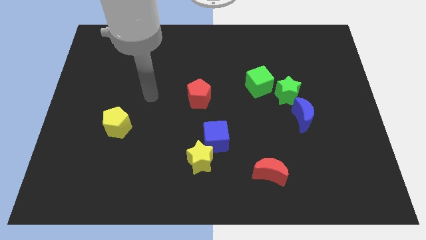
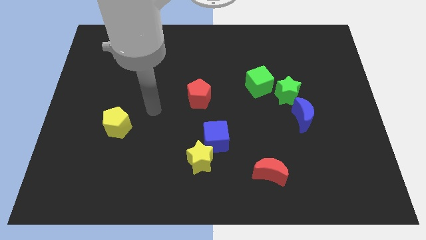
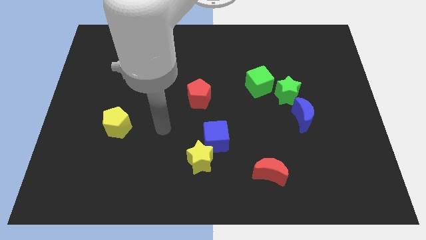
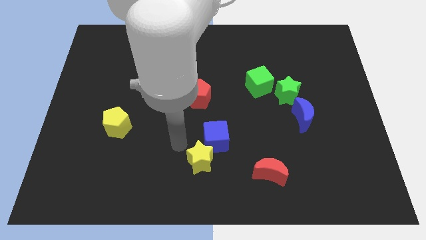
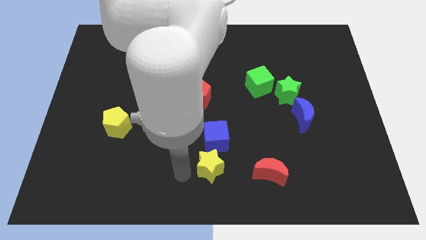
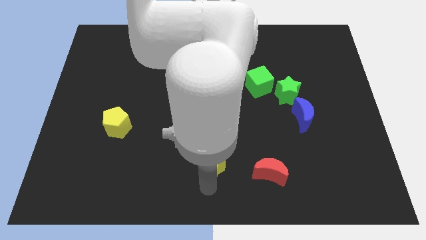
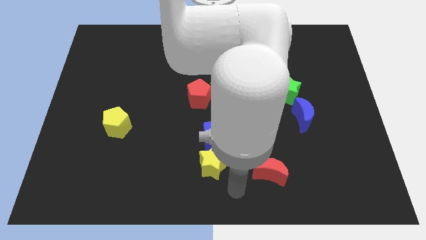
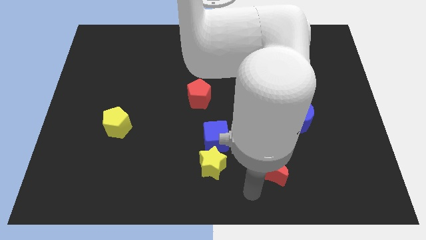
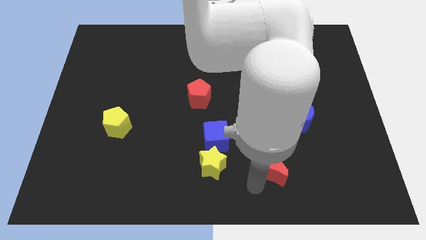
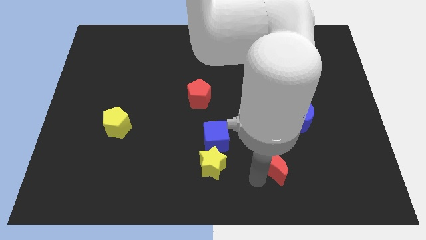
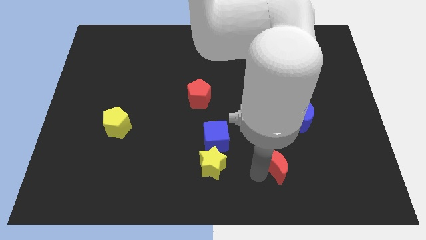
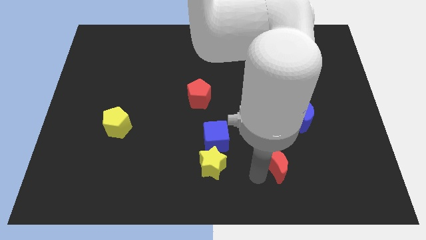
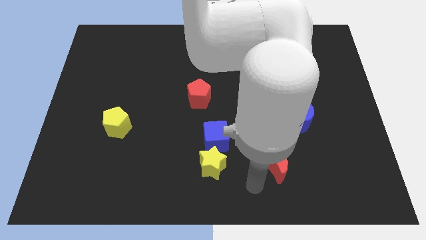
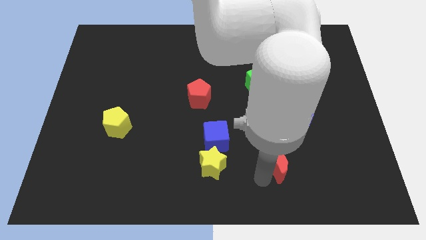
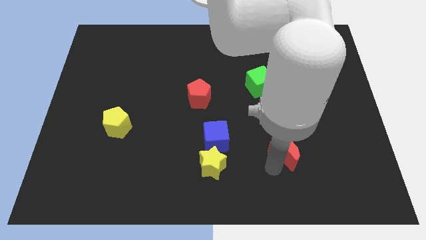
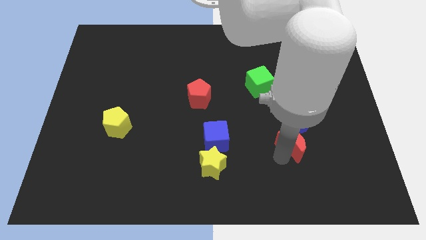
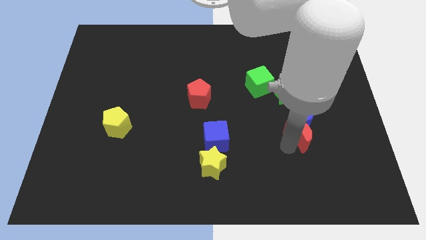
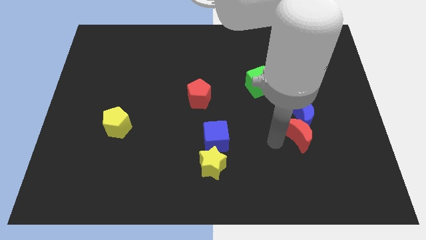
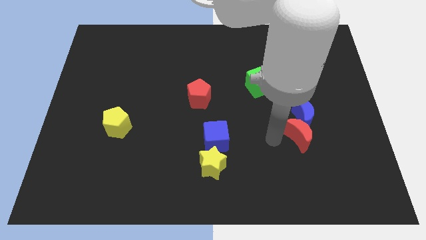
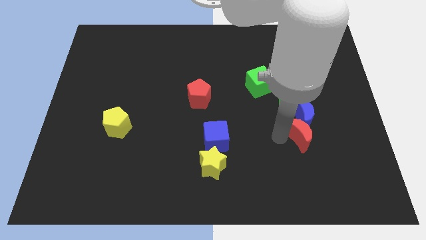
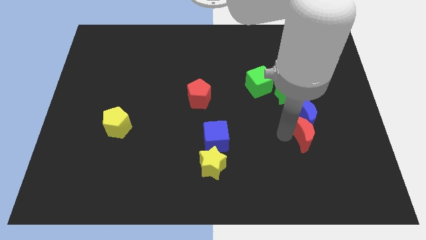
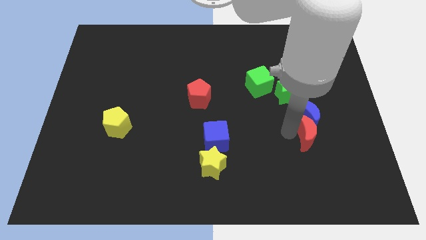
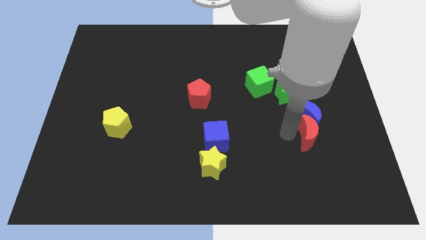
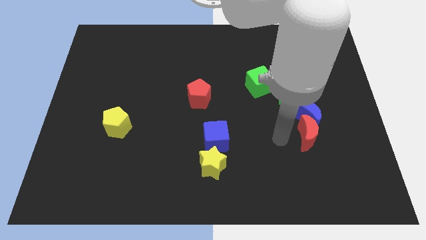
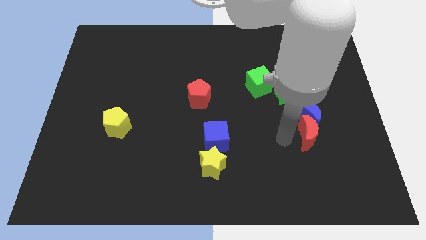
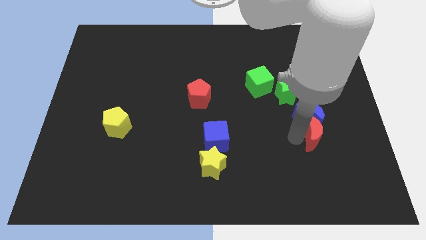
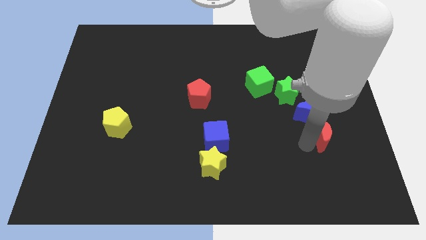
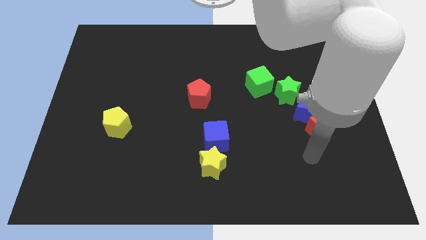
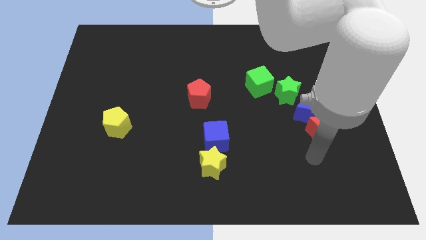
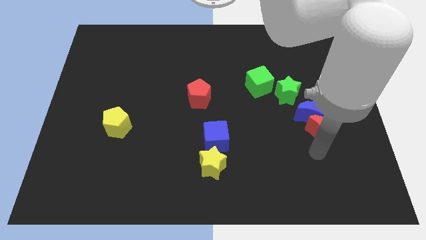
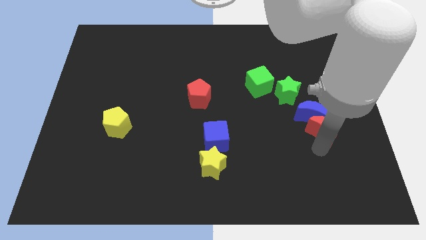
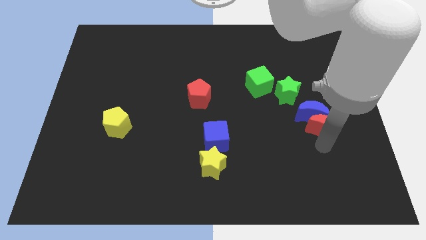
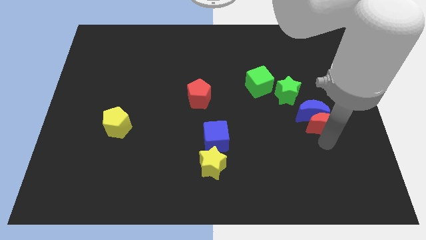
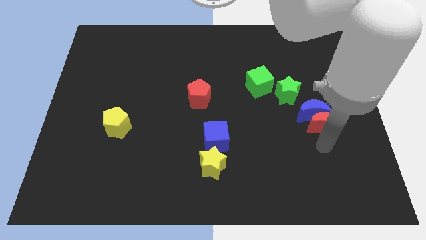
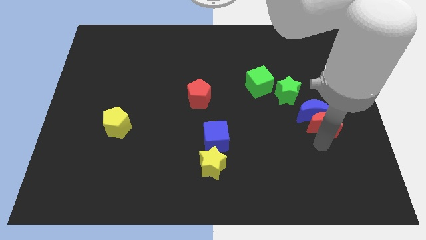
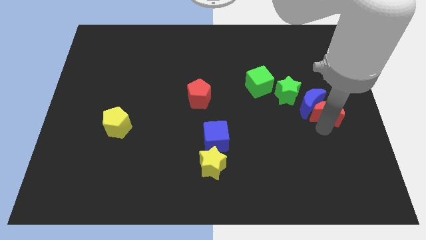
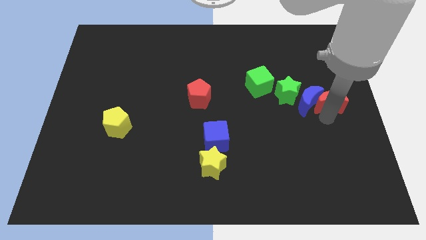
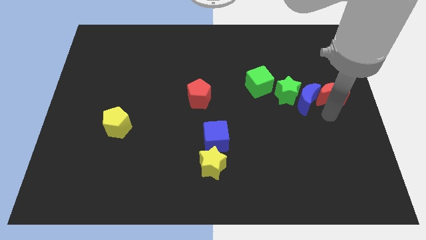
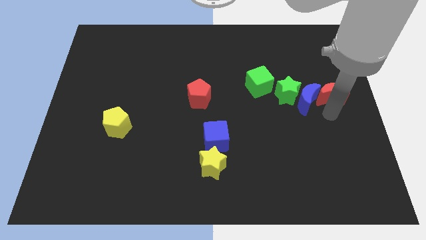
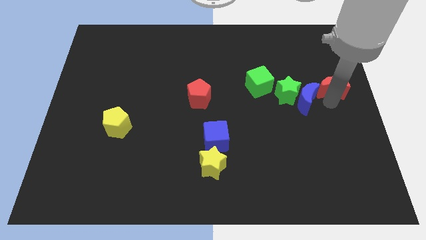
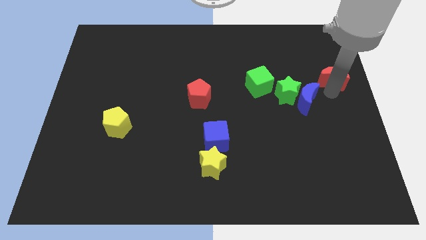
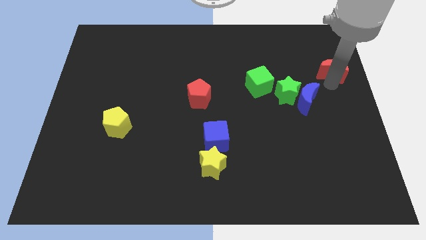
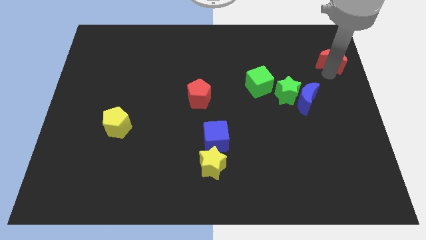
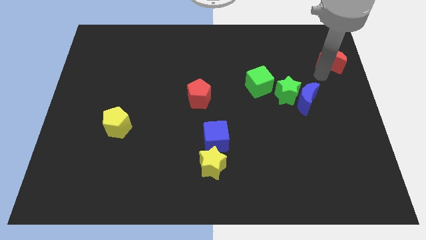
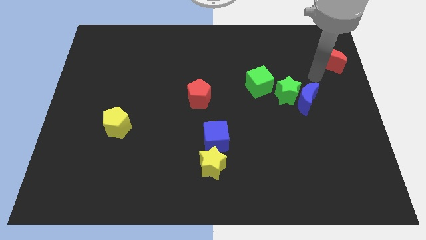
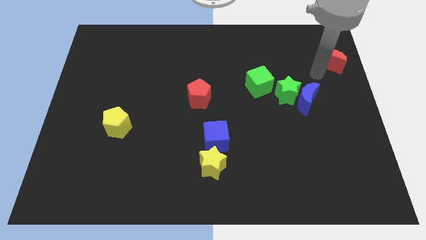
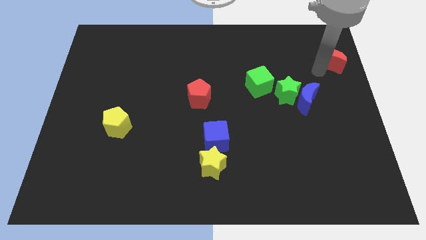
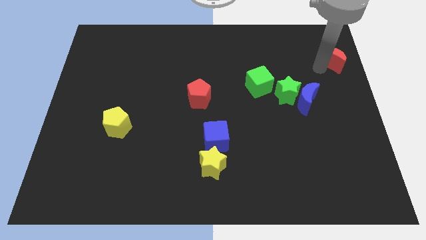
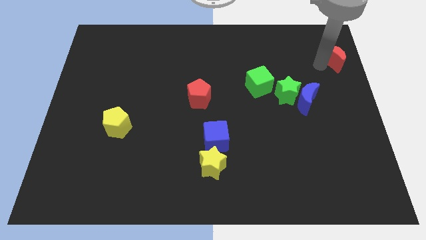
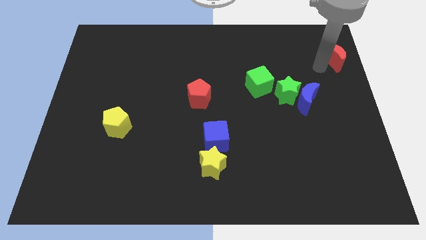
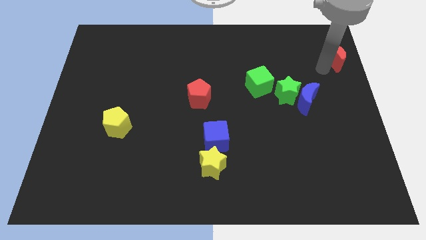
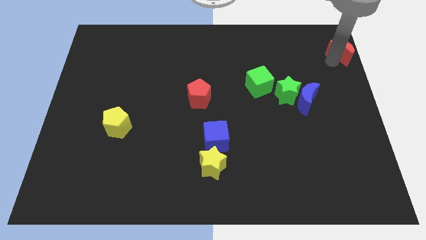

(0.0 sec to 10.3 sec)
push the red moon to the top right

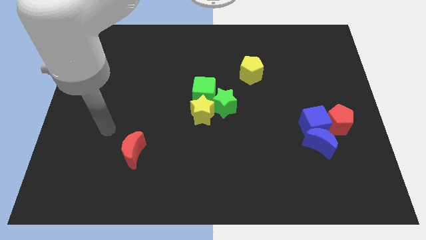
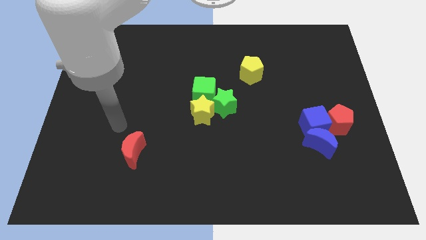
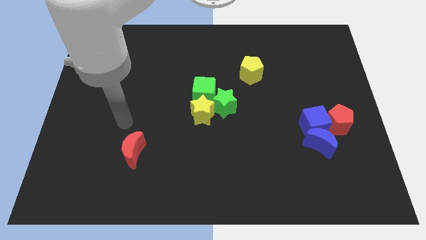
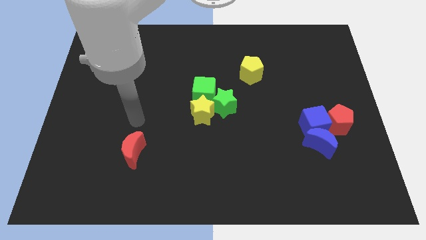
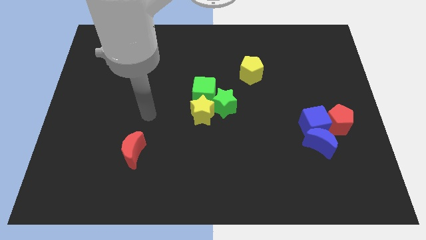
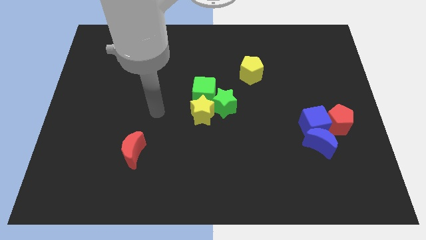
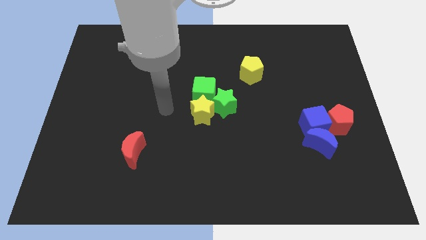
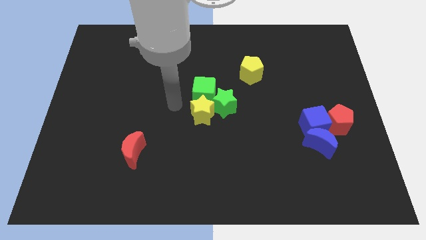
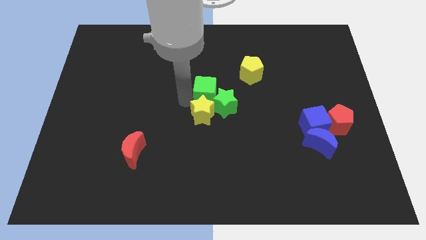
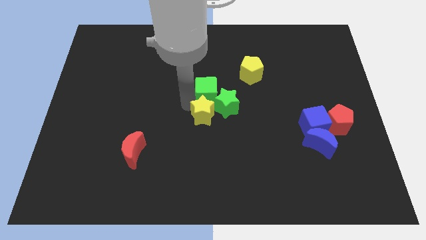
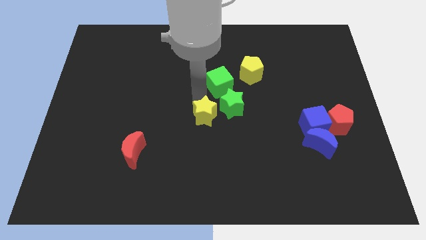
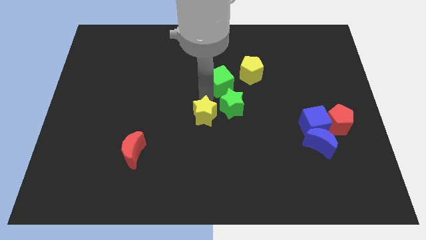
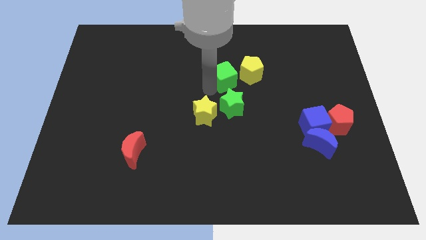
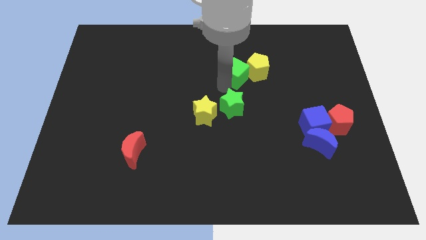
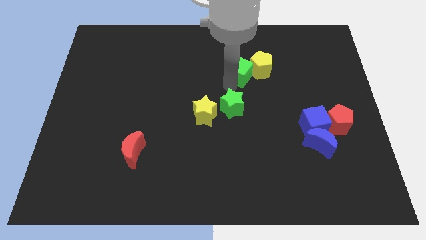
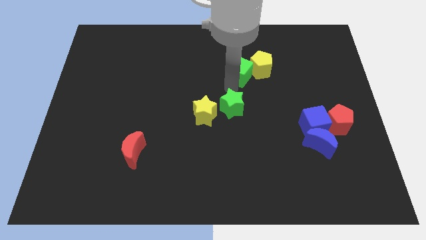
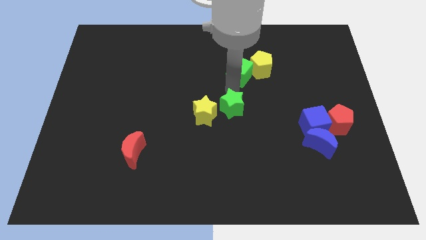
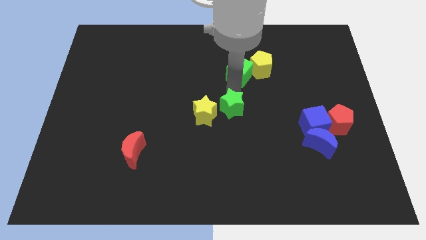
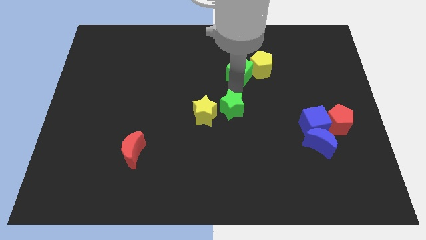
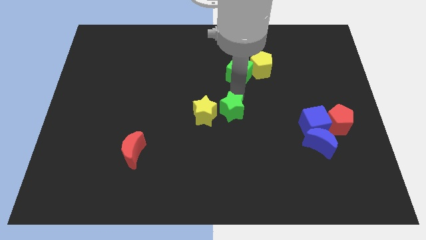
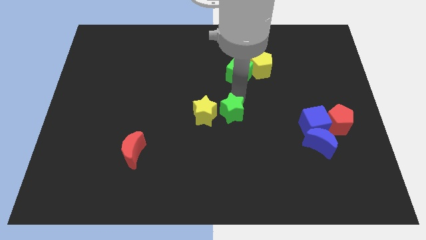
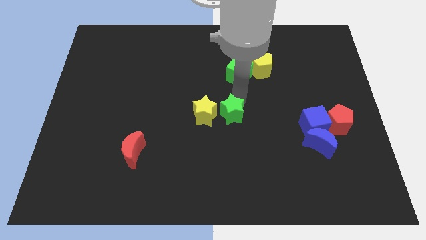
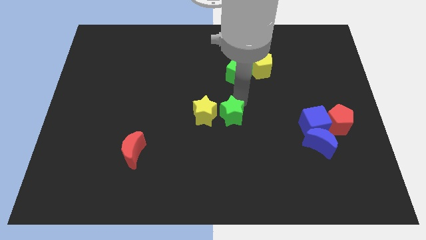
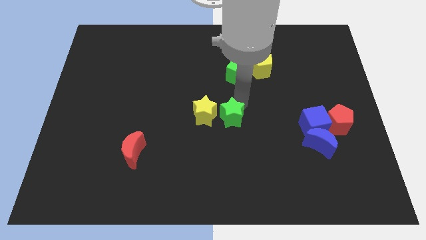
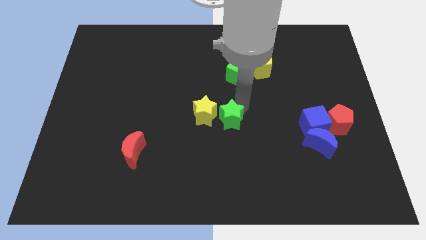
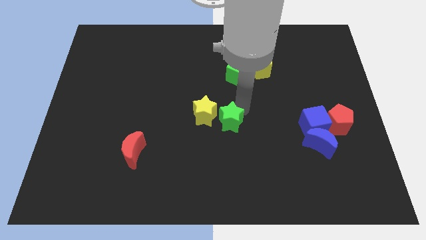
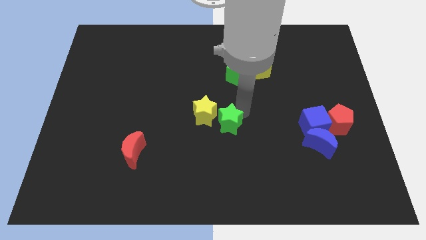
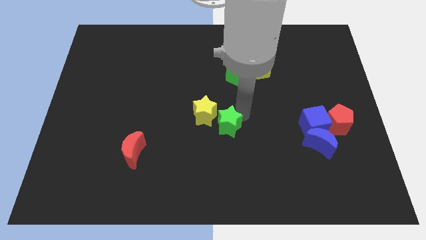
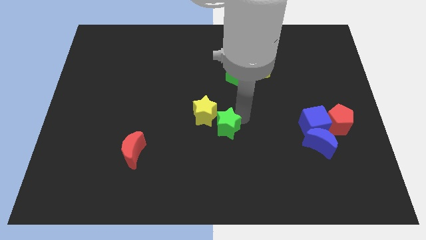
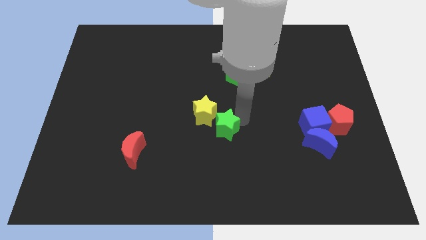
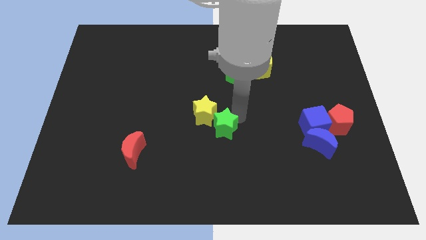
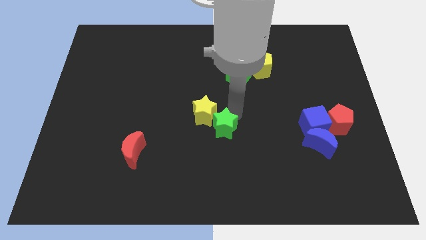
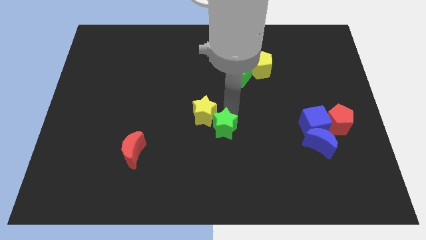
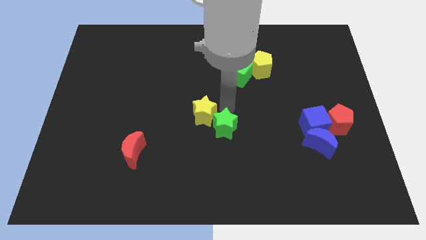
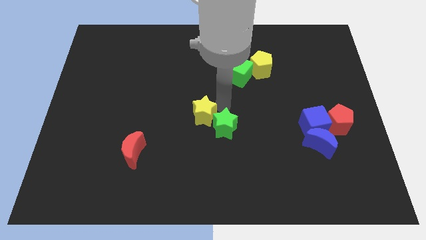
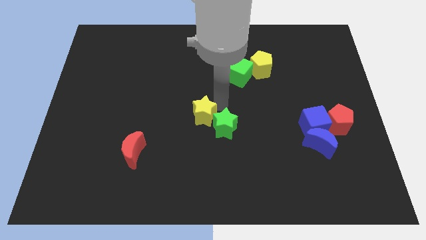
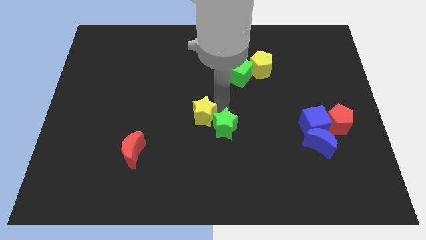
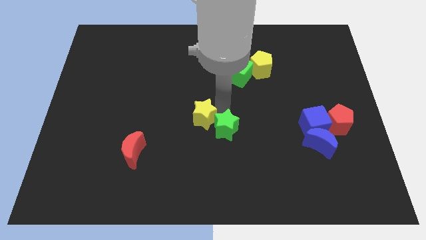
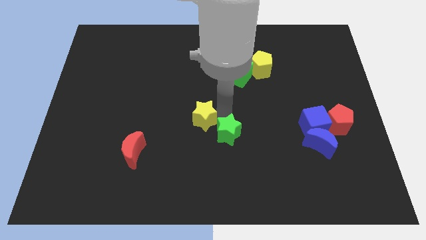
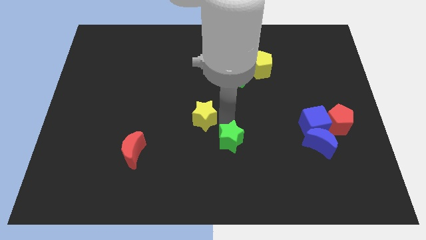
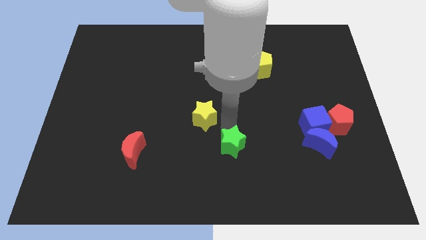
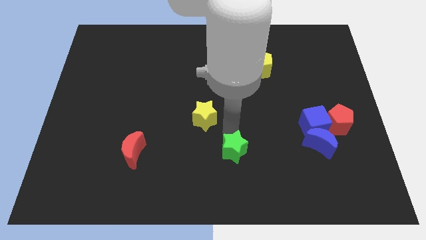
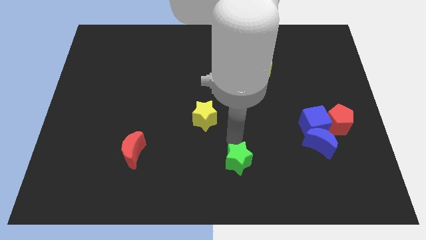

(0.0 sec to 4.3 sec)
move the green star to the bottom
